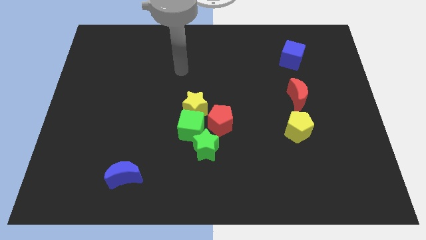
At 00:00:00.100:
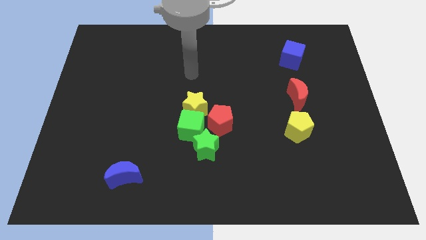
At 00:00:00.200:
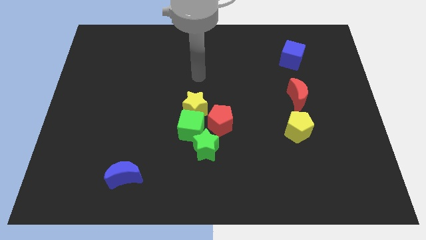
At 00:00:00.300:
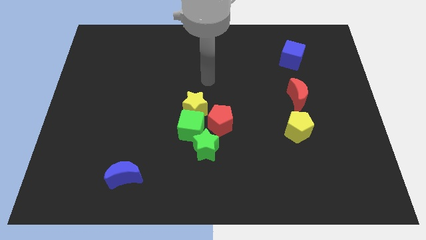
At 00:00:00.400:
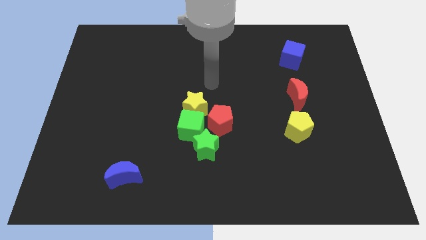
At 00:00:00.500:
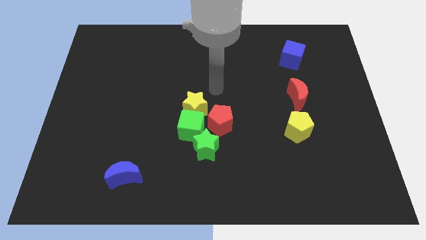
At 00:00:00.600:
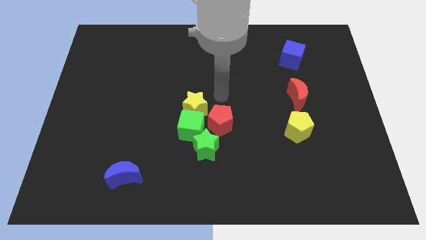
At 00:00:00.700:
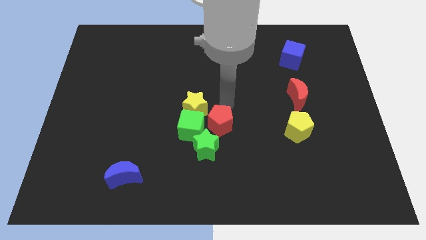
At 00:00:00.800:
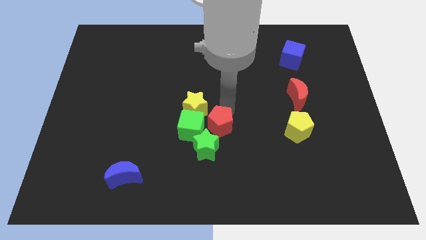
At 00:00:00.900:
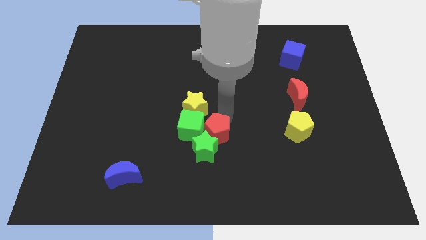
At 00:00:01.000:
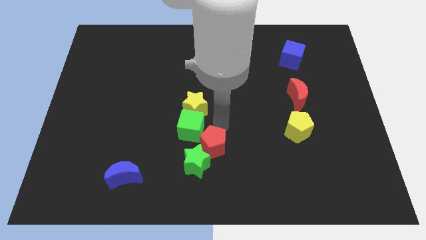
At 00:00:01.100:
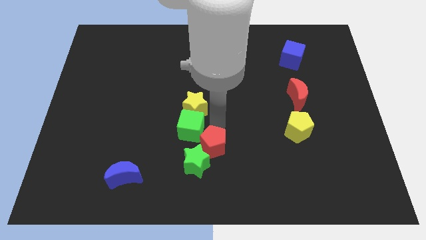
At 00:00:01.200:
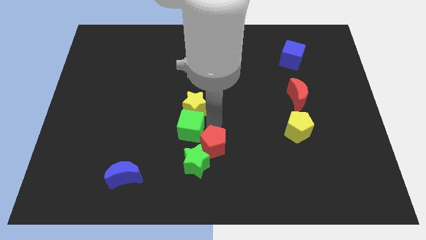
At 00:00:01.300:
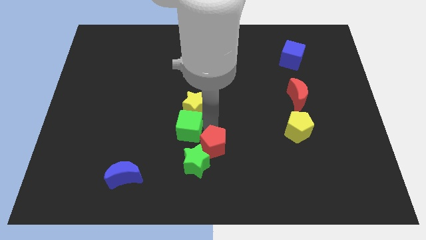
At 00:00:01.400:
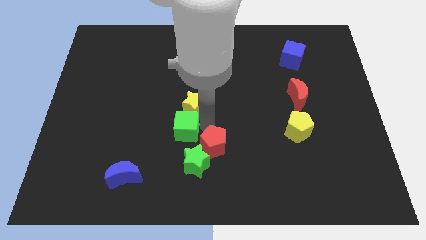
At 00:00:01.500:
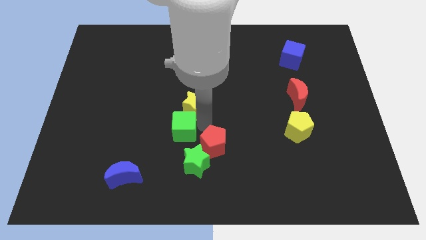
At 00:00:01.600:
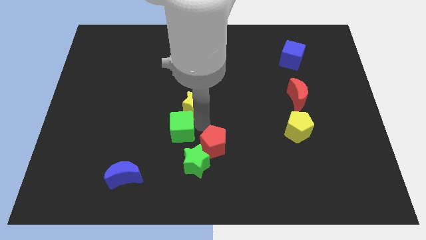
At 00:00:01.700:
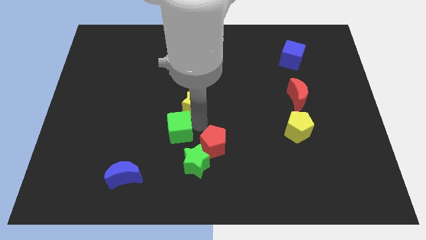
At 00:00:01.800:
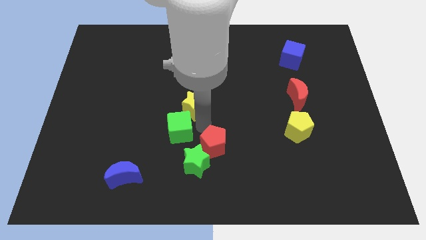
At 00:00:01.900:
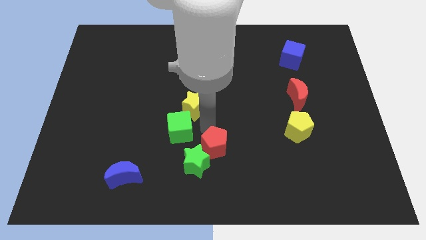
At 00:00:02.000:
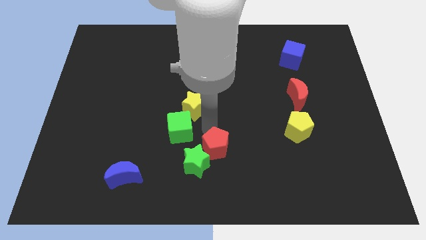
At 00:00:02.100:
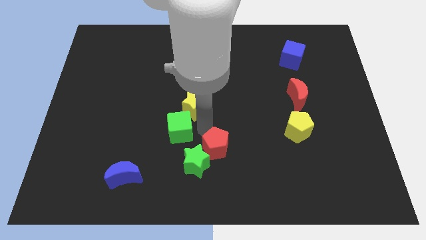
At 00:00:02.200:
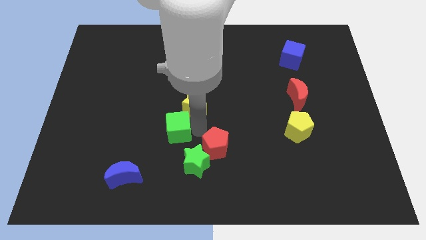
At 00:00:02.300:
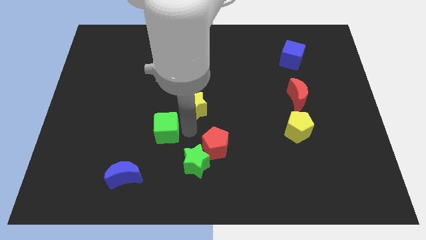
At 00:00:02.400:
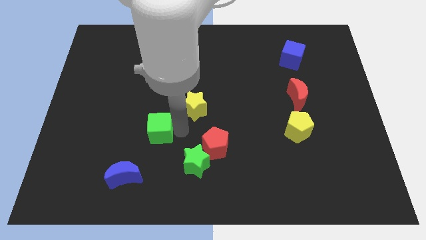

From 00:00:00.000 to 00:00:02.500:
slide the green cube somewhat left

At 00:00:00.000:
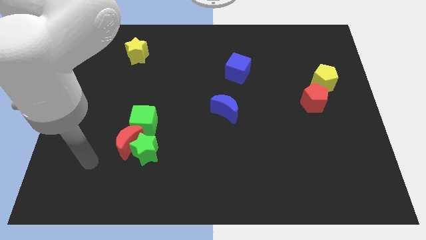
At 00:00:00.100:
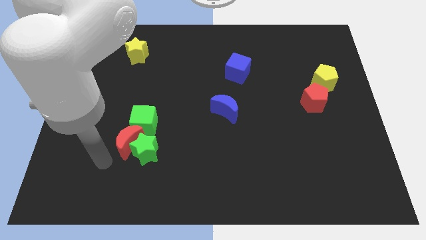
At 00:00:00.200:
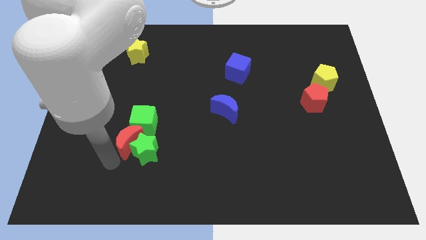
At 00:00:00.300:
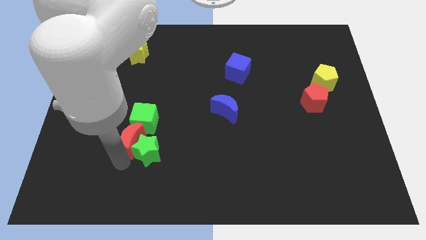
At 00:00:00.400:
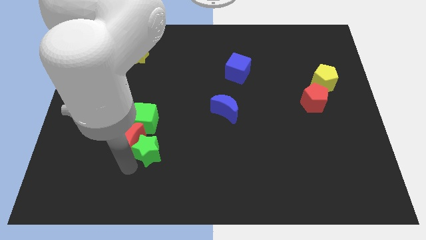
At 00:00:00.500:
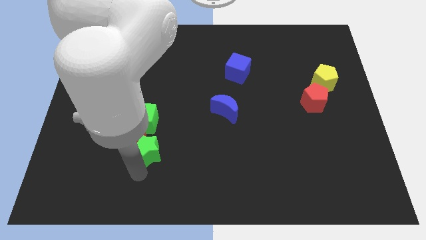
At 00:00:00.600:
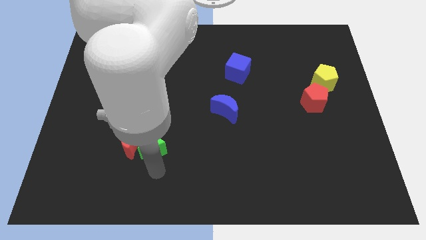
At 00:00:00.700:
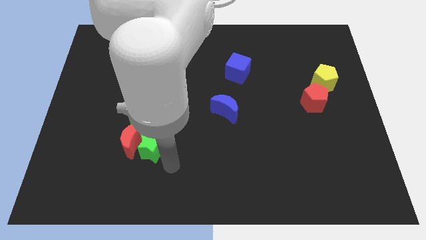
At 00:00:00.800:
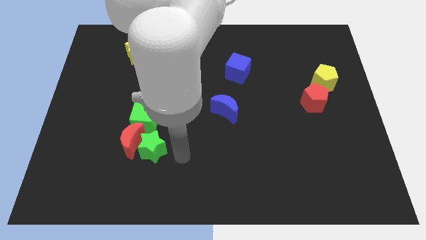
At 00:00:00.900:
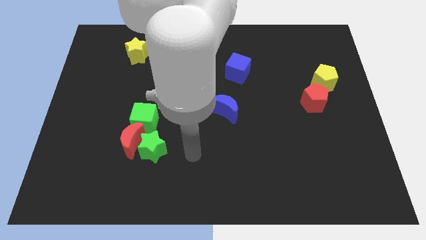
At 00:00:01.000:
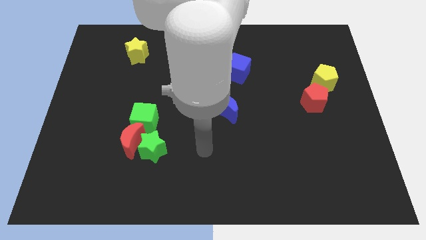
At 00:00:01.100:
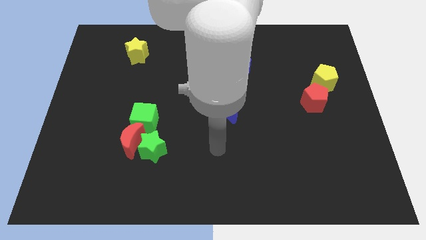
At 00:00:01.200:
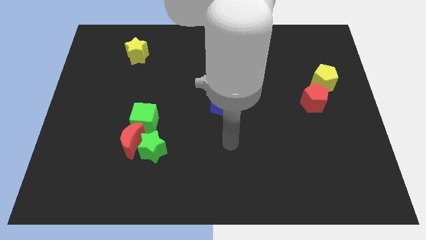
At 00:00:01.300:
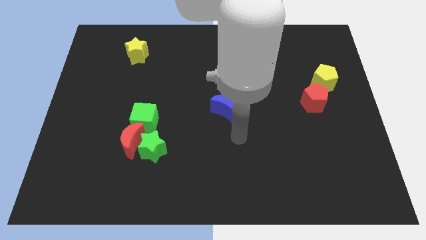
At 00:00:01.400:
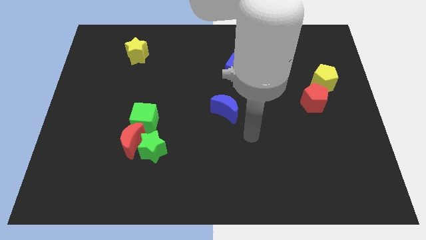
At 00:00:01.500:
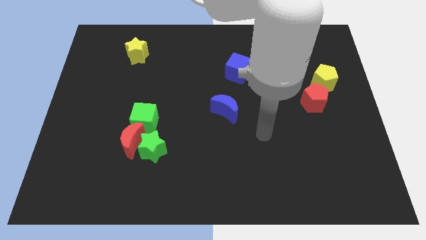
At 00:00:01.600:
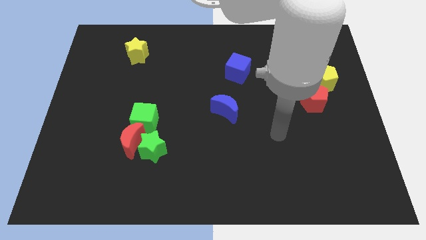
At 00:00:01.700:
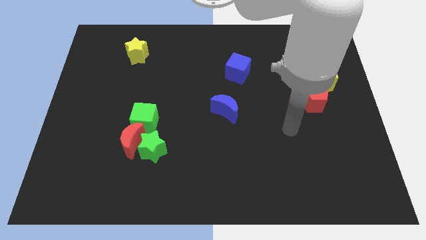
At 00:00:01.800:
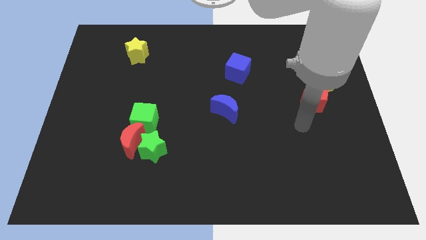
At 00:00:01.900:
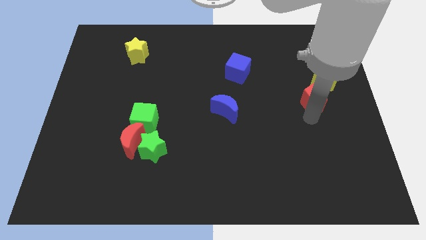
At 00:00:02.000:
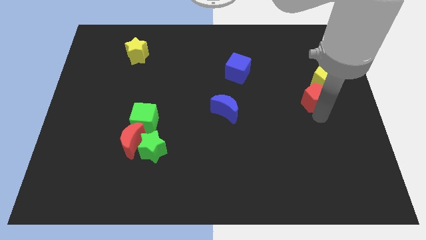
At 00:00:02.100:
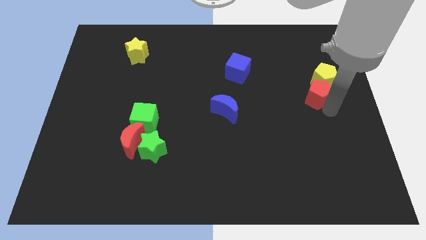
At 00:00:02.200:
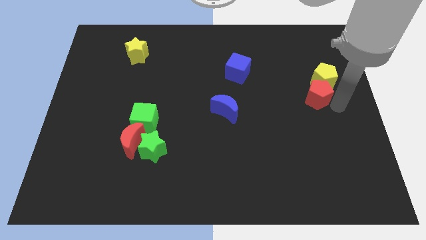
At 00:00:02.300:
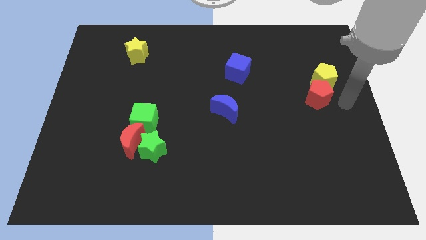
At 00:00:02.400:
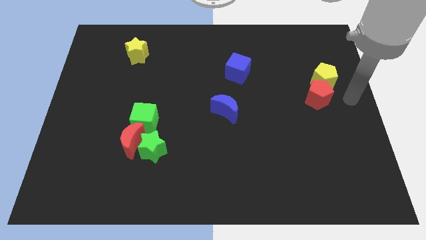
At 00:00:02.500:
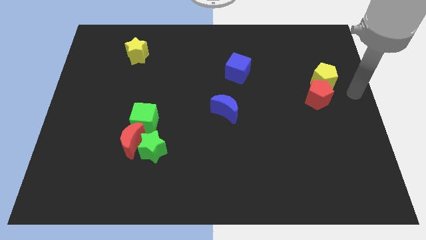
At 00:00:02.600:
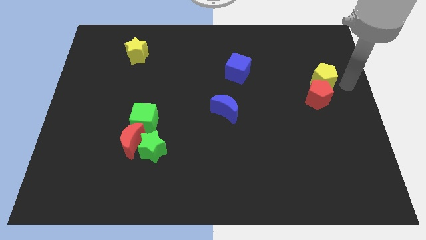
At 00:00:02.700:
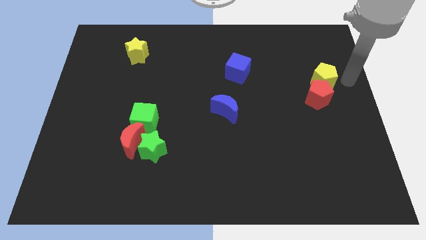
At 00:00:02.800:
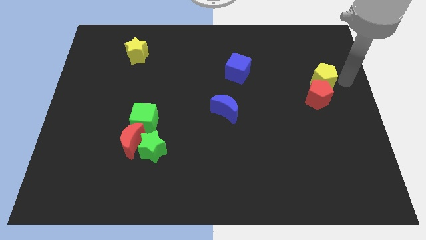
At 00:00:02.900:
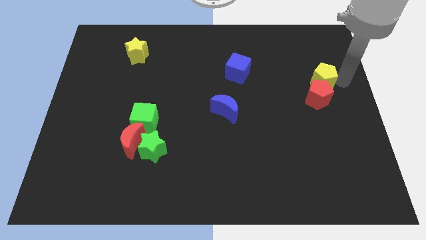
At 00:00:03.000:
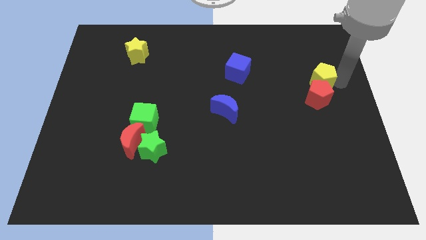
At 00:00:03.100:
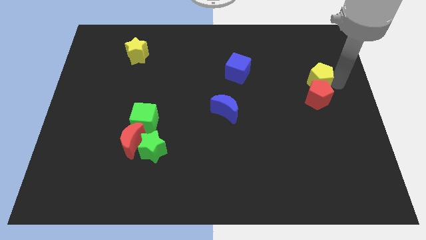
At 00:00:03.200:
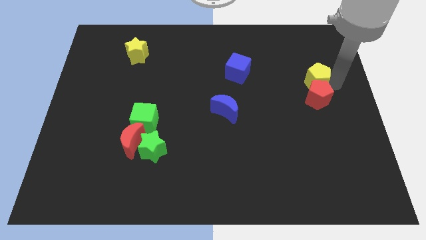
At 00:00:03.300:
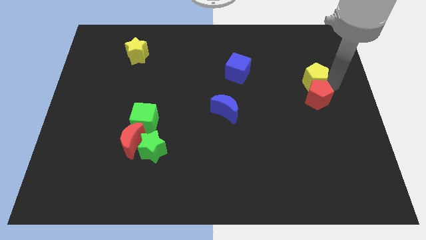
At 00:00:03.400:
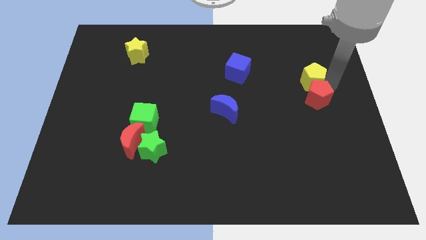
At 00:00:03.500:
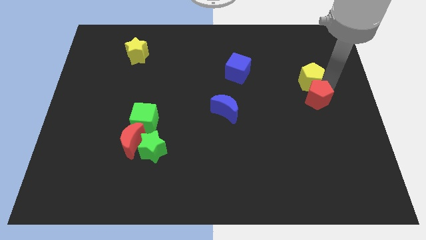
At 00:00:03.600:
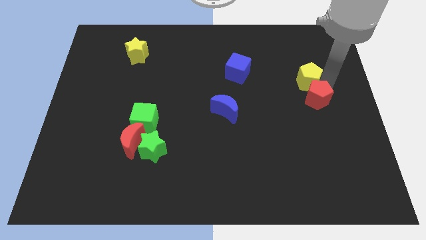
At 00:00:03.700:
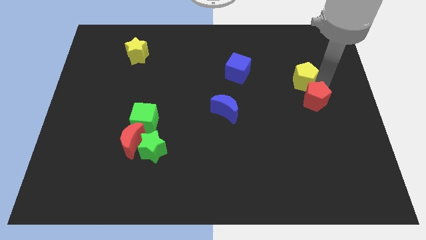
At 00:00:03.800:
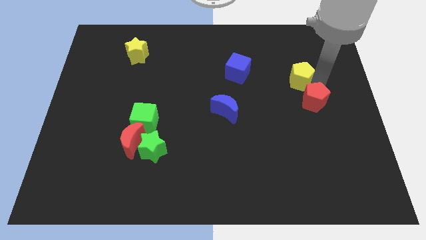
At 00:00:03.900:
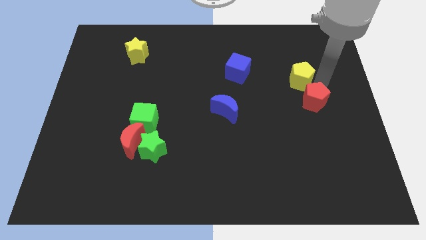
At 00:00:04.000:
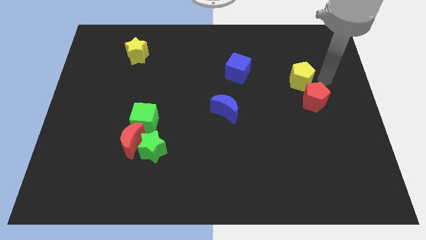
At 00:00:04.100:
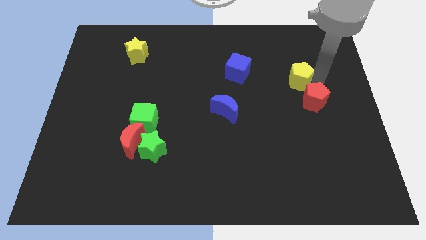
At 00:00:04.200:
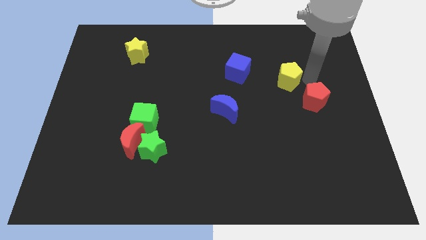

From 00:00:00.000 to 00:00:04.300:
slide the yellow pentagon slightly to the left

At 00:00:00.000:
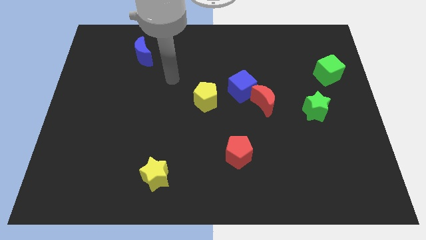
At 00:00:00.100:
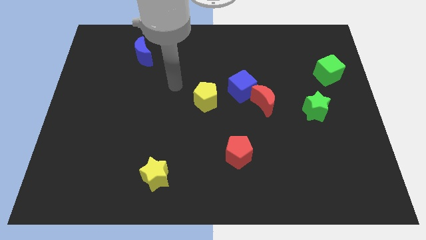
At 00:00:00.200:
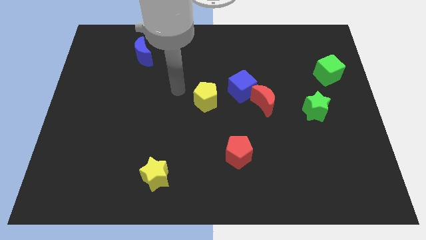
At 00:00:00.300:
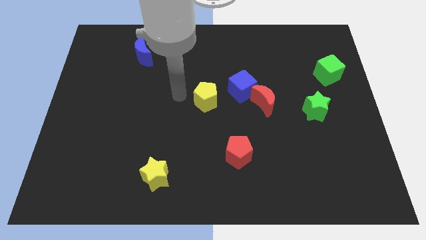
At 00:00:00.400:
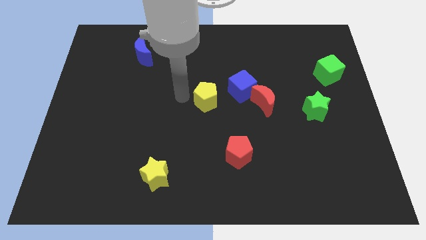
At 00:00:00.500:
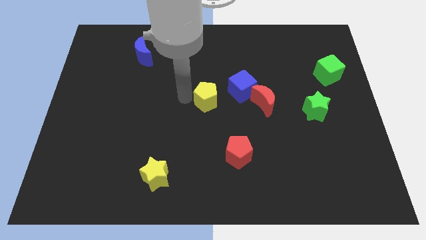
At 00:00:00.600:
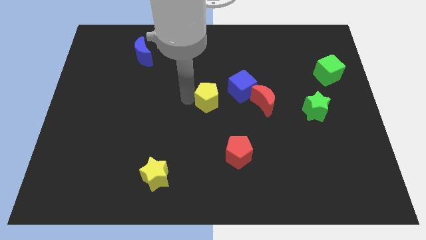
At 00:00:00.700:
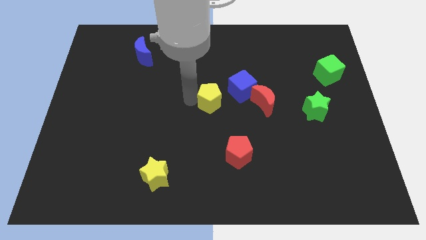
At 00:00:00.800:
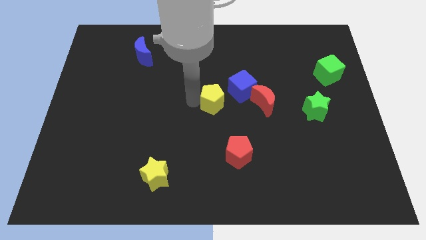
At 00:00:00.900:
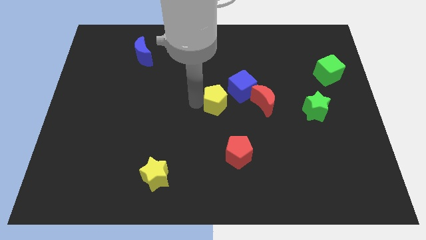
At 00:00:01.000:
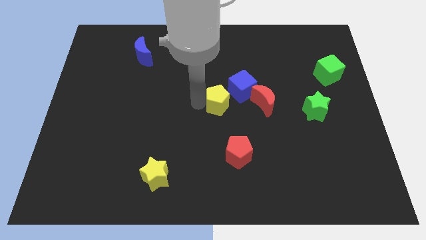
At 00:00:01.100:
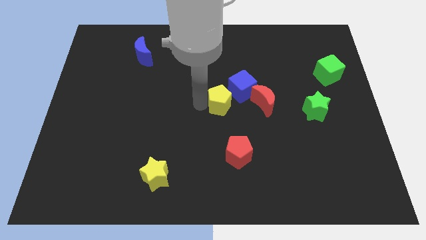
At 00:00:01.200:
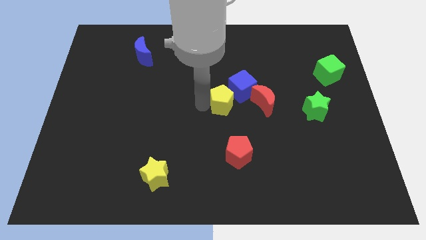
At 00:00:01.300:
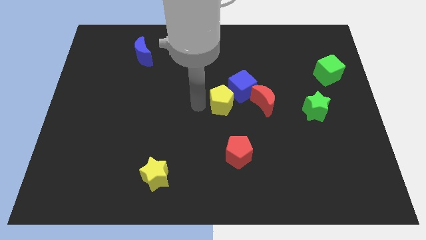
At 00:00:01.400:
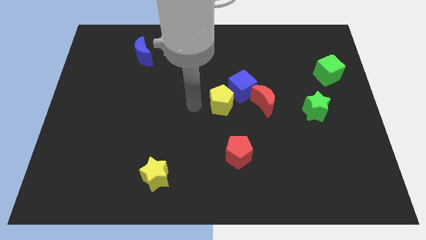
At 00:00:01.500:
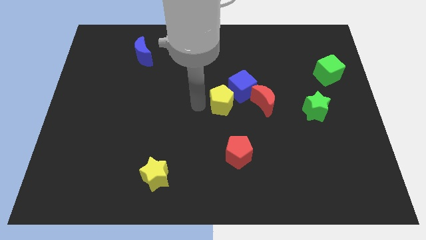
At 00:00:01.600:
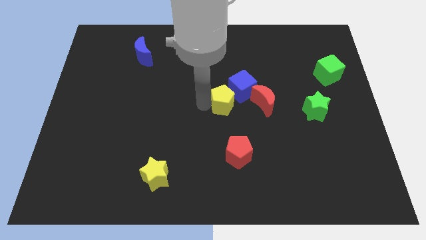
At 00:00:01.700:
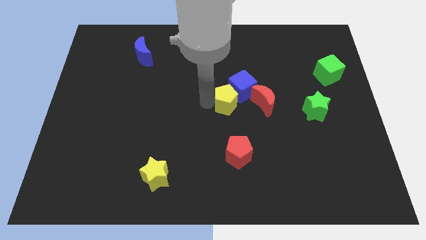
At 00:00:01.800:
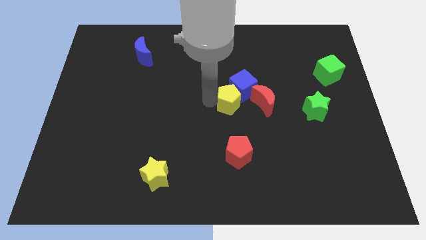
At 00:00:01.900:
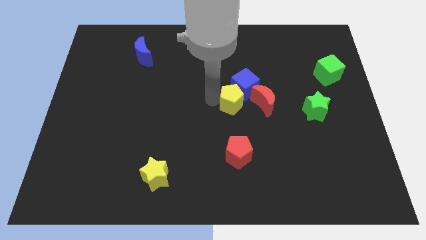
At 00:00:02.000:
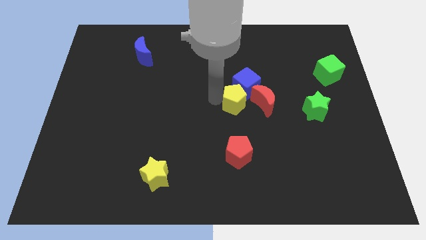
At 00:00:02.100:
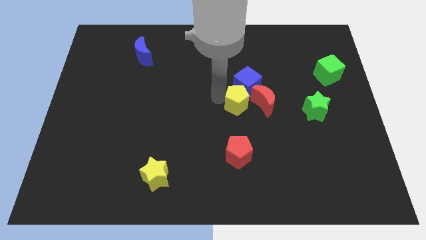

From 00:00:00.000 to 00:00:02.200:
push the yellow pentagon right slightly
